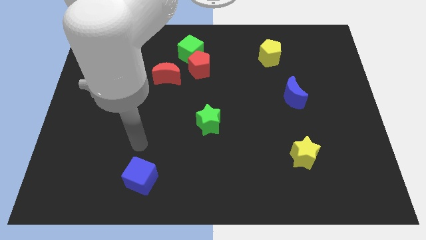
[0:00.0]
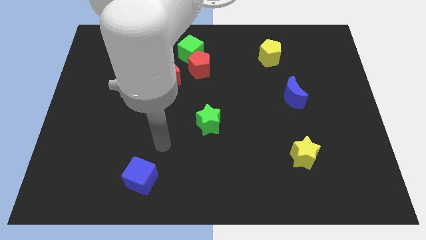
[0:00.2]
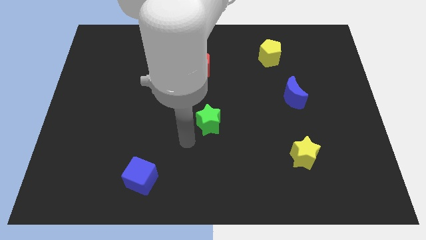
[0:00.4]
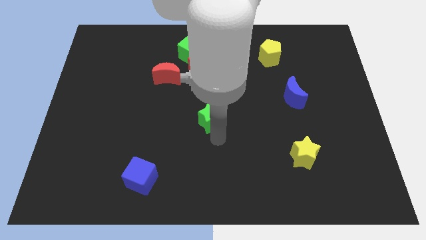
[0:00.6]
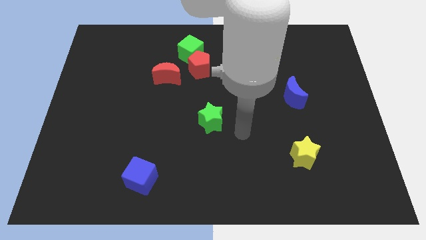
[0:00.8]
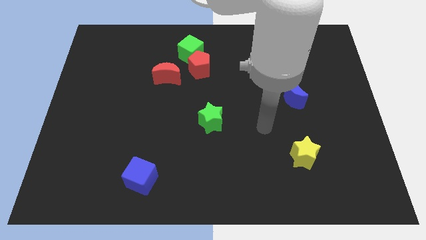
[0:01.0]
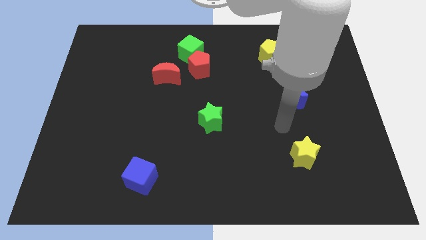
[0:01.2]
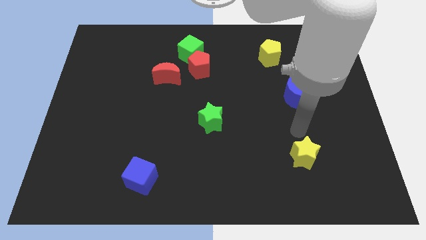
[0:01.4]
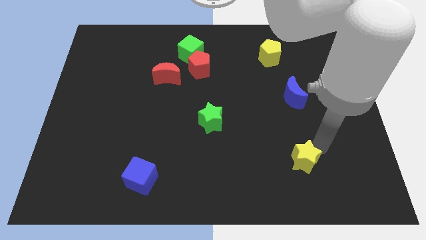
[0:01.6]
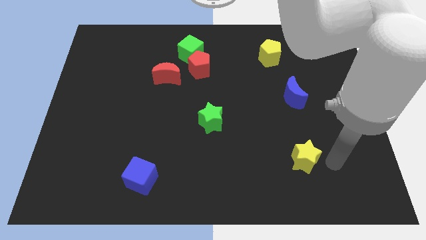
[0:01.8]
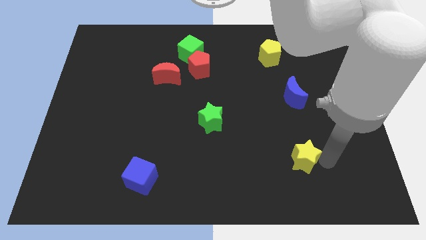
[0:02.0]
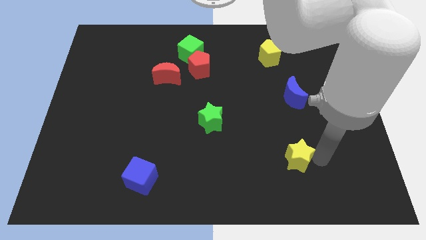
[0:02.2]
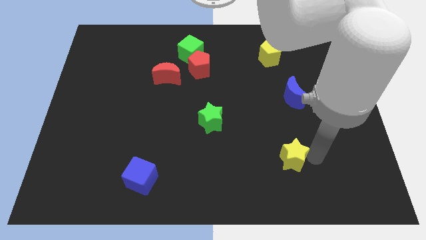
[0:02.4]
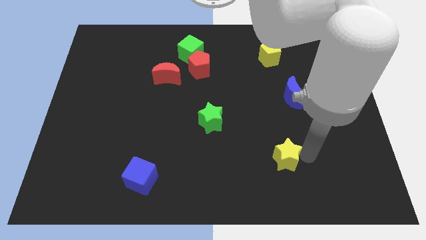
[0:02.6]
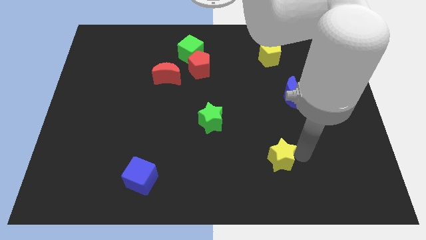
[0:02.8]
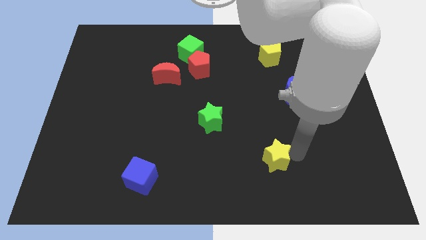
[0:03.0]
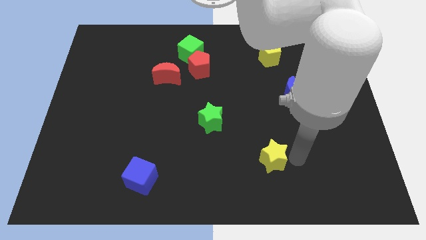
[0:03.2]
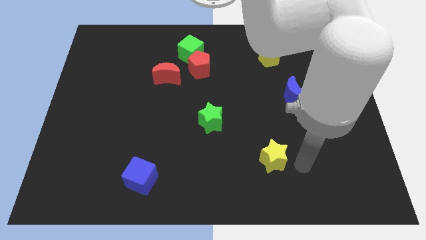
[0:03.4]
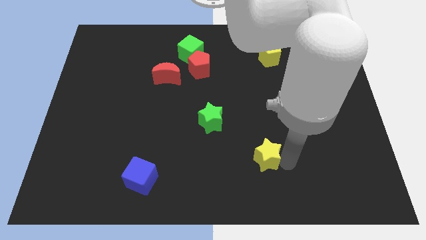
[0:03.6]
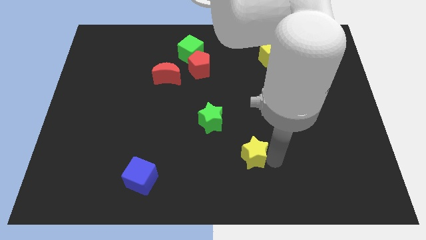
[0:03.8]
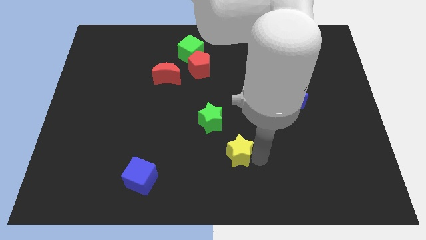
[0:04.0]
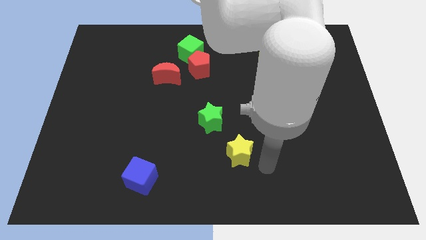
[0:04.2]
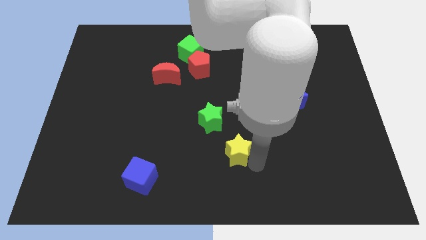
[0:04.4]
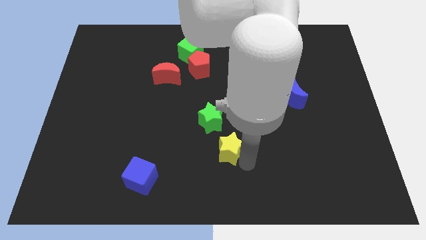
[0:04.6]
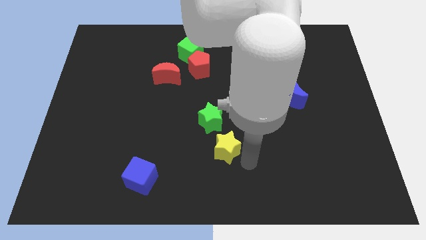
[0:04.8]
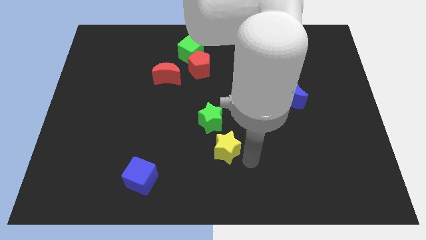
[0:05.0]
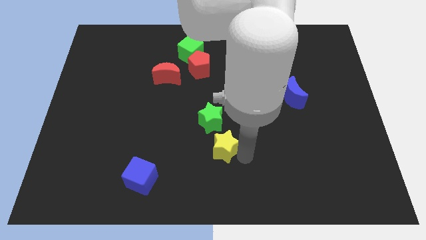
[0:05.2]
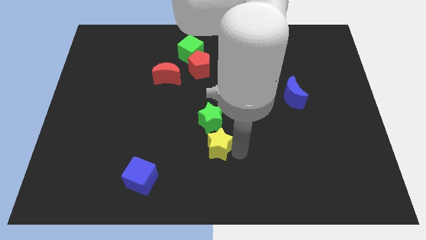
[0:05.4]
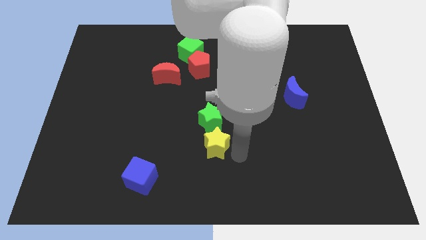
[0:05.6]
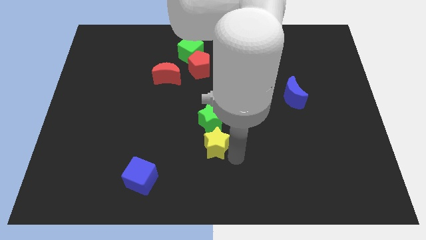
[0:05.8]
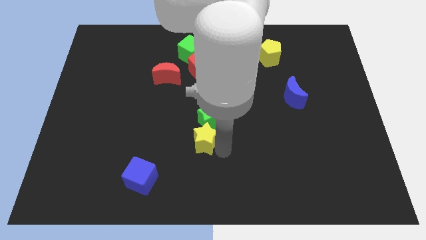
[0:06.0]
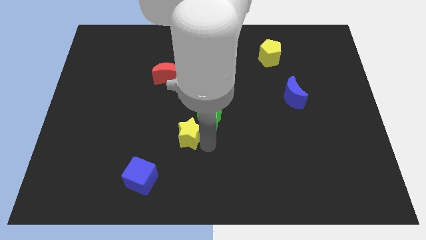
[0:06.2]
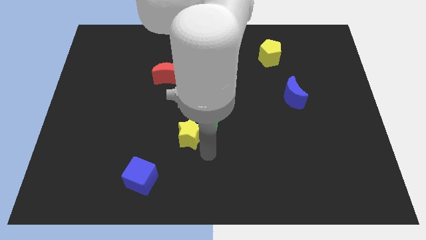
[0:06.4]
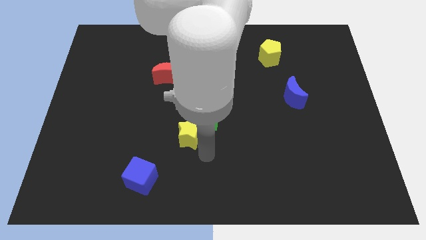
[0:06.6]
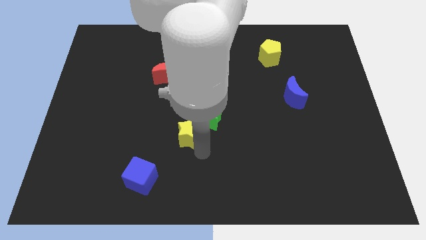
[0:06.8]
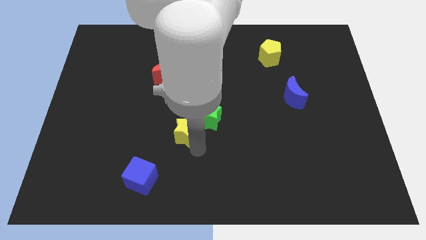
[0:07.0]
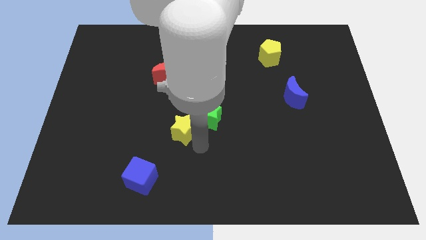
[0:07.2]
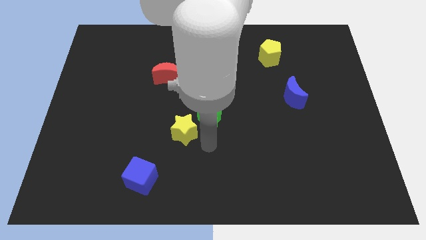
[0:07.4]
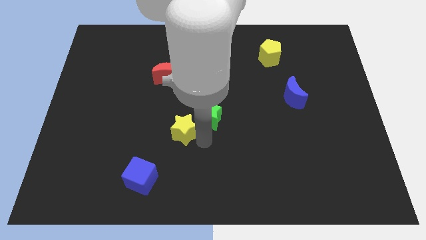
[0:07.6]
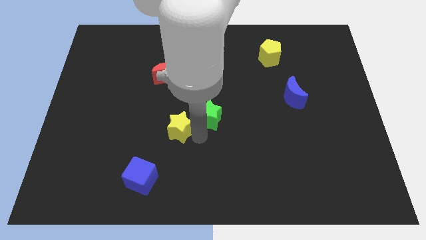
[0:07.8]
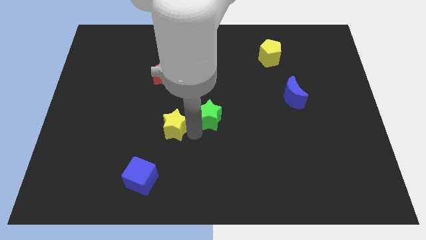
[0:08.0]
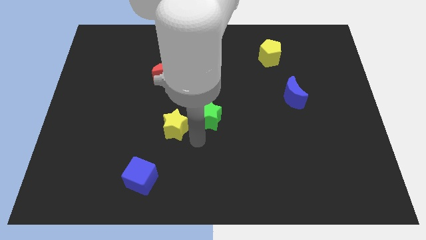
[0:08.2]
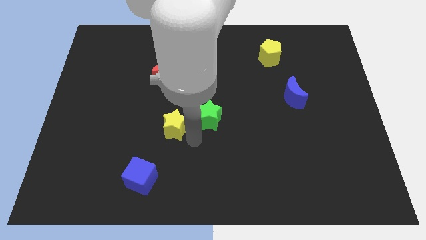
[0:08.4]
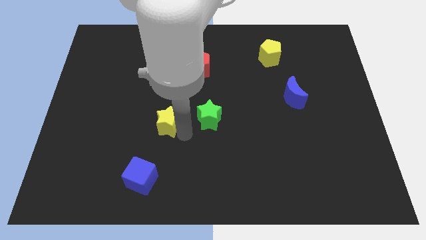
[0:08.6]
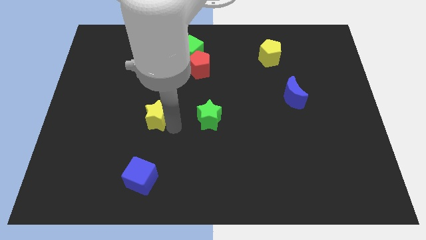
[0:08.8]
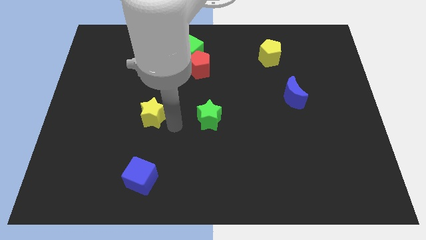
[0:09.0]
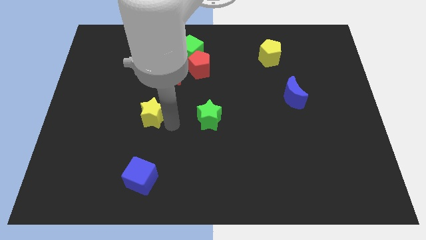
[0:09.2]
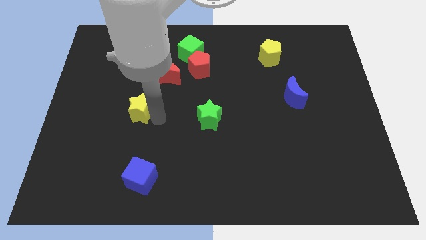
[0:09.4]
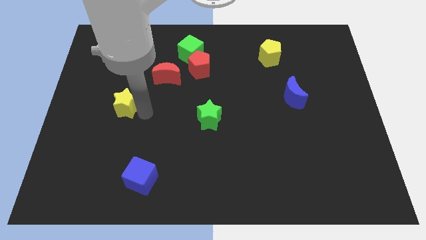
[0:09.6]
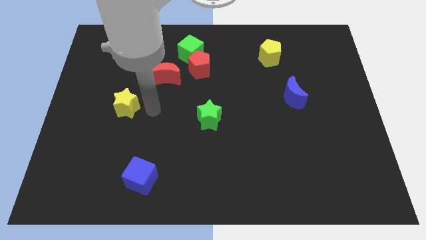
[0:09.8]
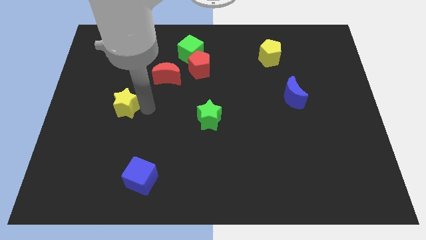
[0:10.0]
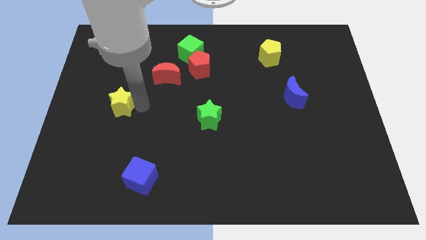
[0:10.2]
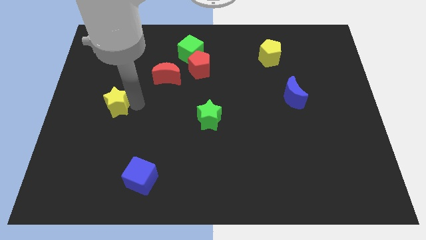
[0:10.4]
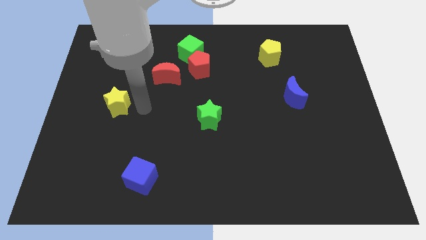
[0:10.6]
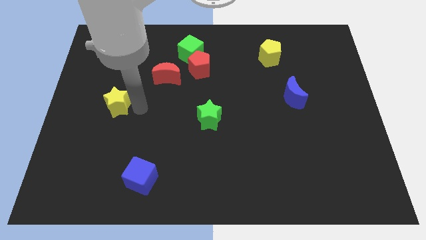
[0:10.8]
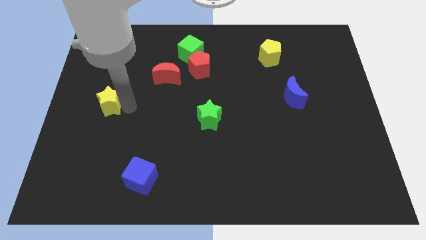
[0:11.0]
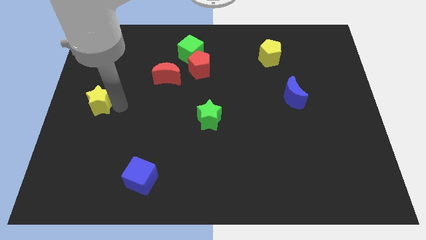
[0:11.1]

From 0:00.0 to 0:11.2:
put the yellow star to the center left

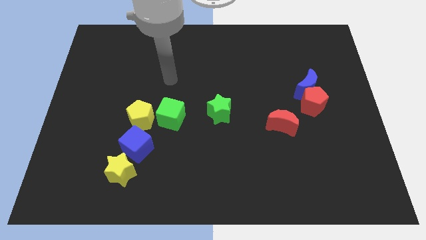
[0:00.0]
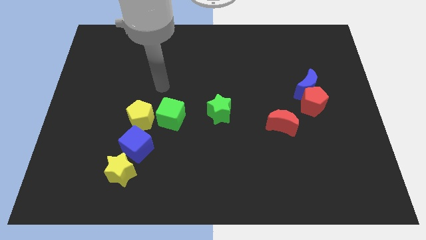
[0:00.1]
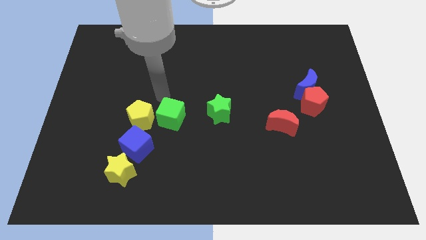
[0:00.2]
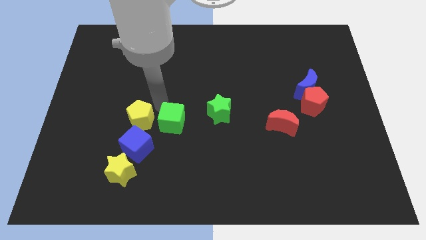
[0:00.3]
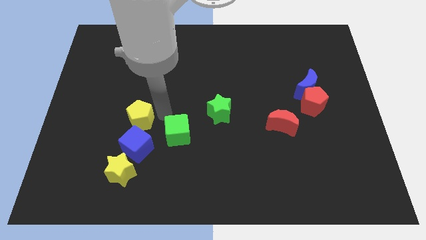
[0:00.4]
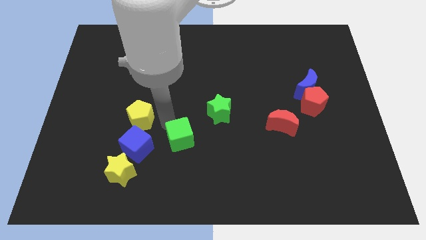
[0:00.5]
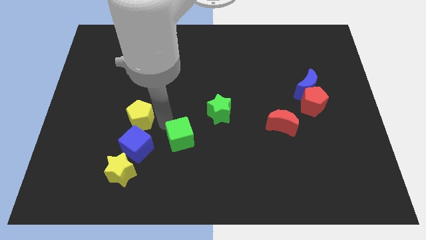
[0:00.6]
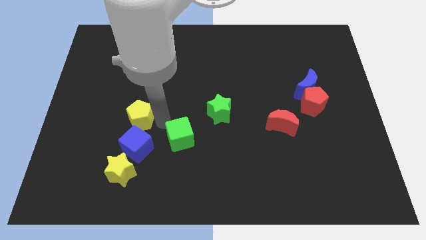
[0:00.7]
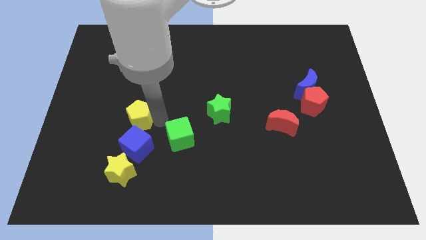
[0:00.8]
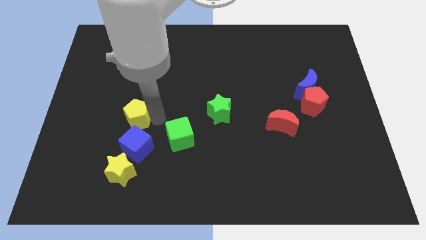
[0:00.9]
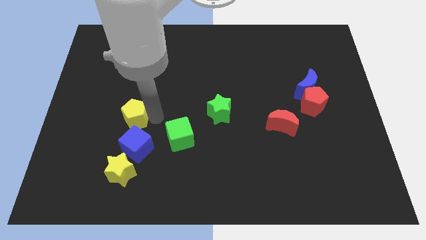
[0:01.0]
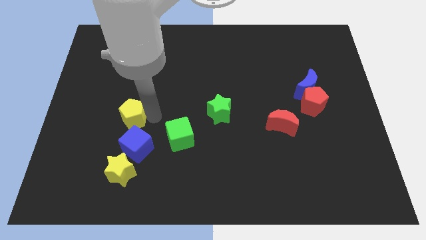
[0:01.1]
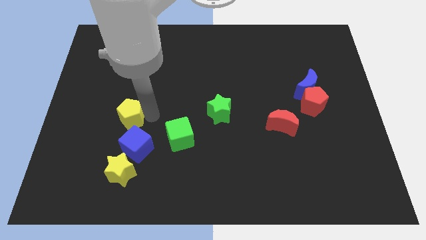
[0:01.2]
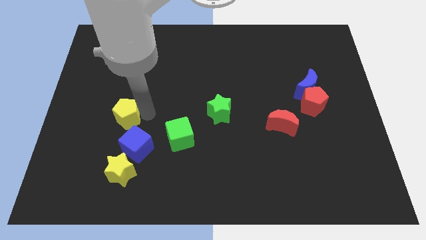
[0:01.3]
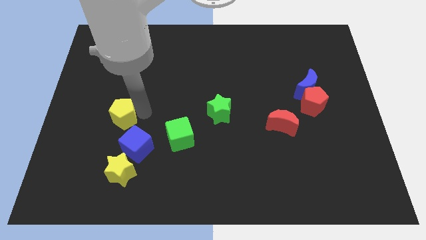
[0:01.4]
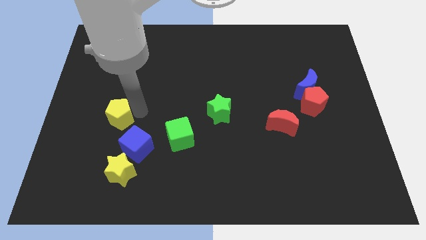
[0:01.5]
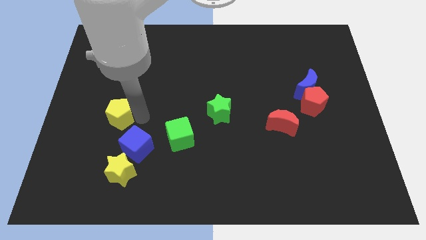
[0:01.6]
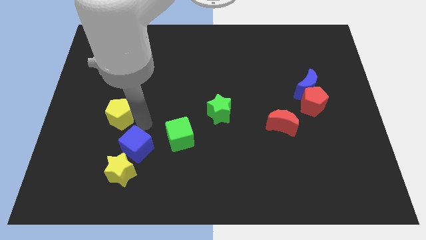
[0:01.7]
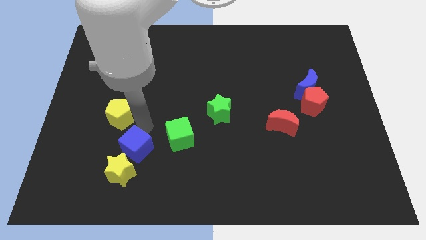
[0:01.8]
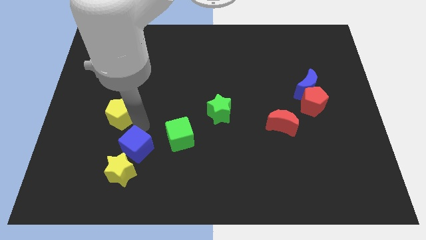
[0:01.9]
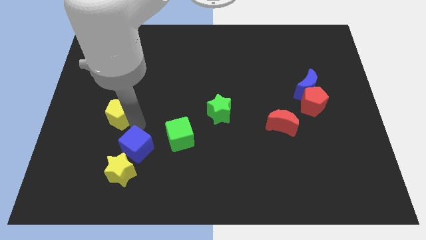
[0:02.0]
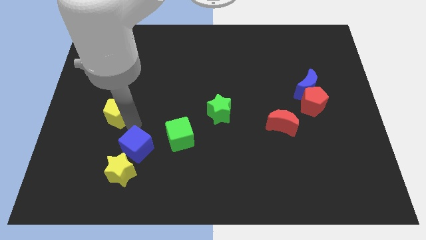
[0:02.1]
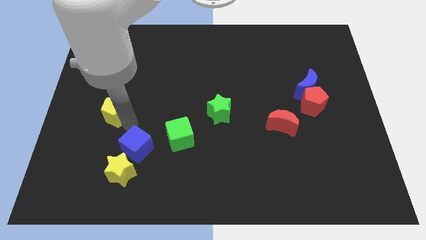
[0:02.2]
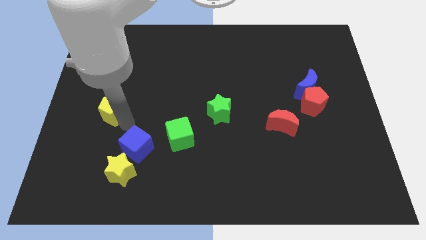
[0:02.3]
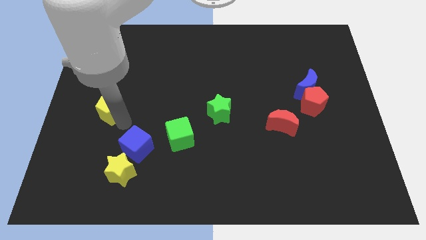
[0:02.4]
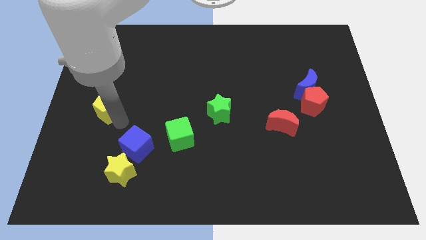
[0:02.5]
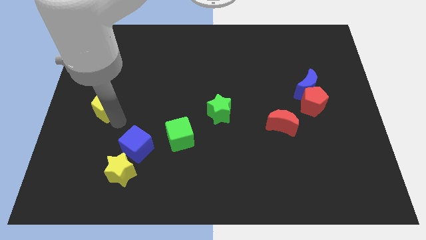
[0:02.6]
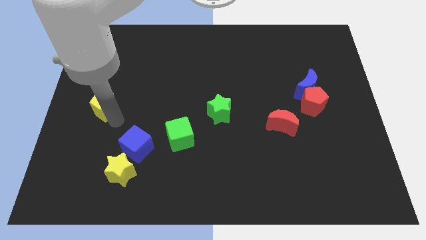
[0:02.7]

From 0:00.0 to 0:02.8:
put the yellow pentagon to the center left
